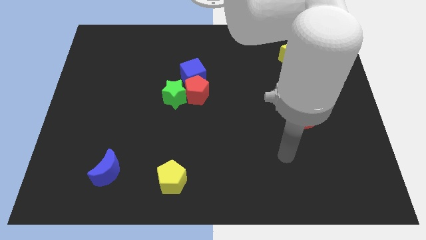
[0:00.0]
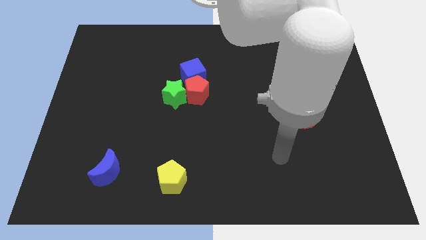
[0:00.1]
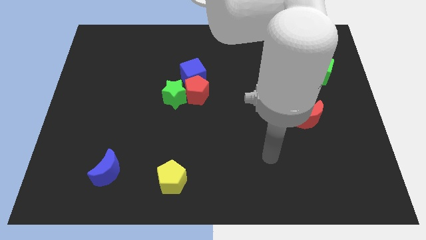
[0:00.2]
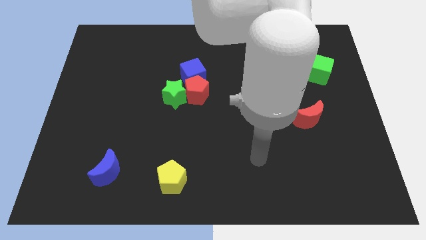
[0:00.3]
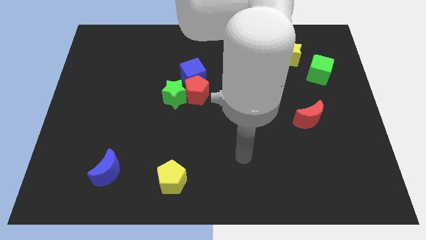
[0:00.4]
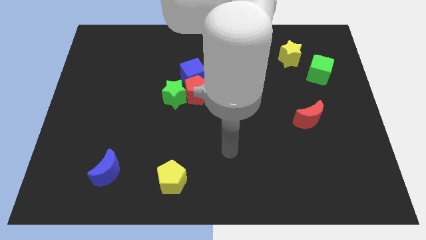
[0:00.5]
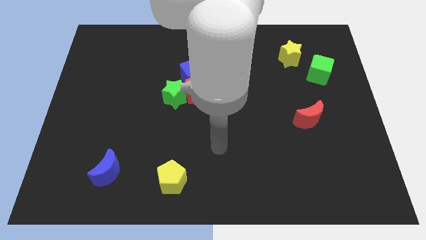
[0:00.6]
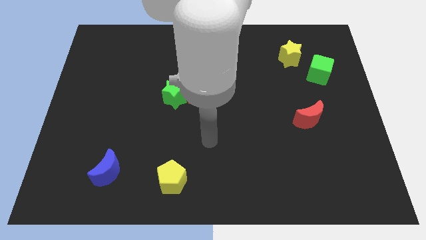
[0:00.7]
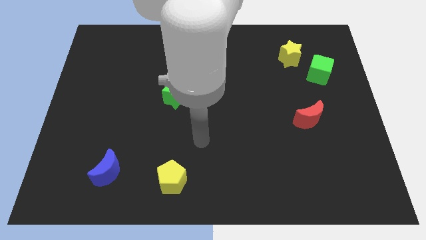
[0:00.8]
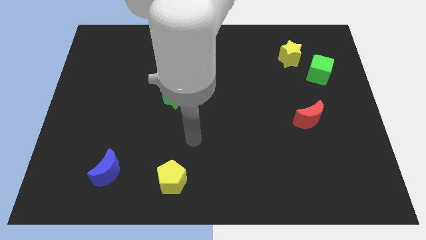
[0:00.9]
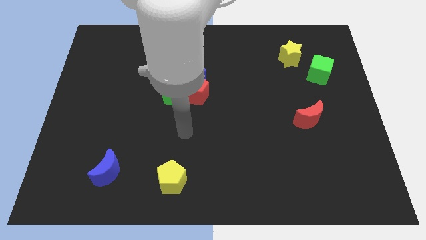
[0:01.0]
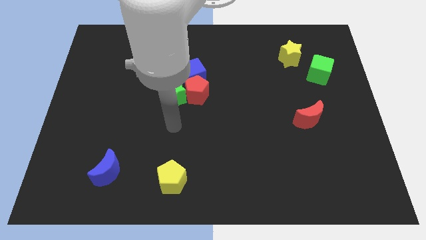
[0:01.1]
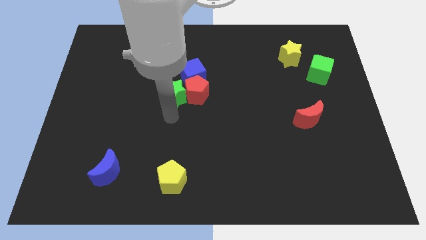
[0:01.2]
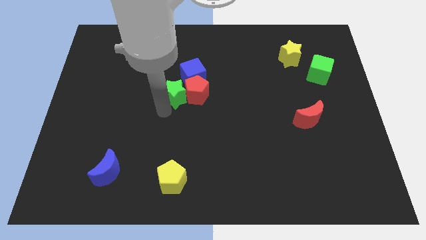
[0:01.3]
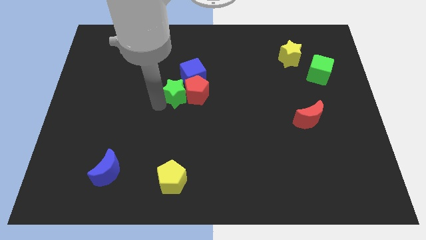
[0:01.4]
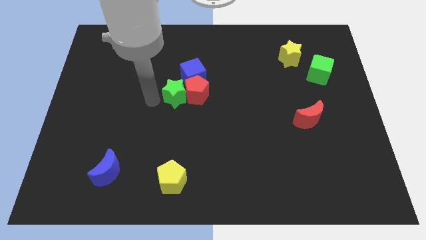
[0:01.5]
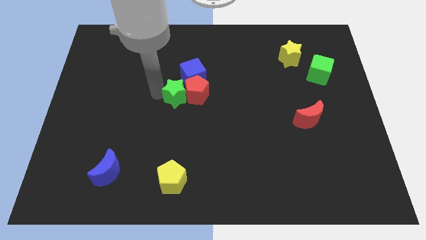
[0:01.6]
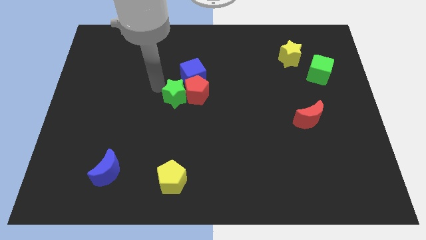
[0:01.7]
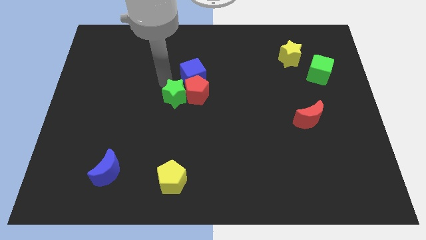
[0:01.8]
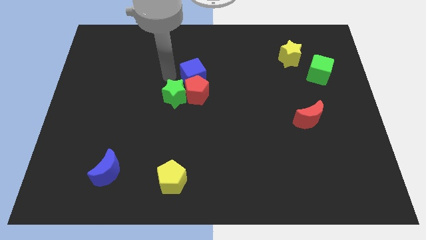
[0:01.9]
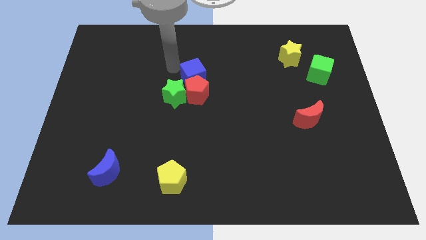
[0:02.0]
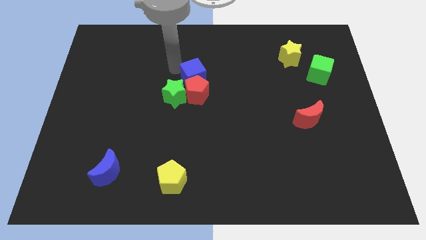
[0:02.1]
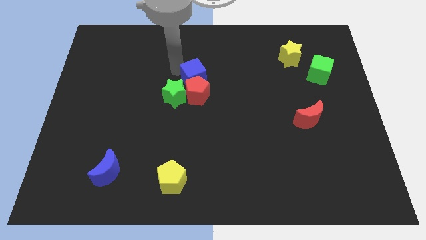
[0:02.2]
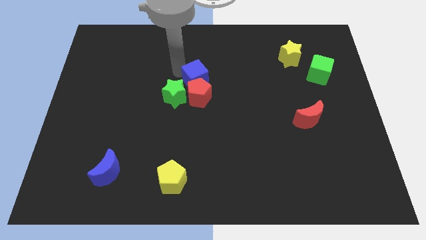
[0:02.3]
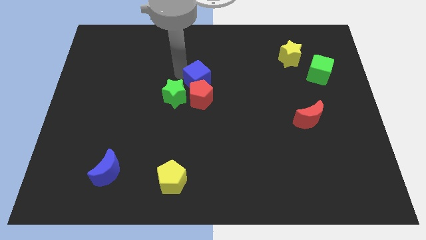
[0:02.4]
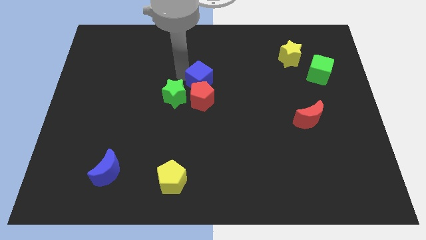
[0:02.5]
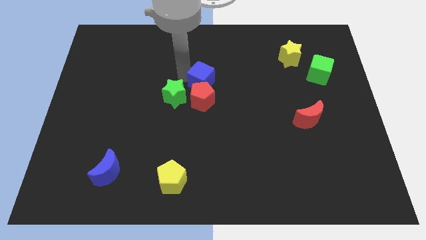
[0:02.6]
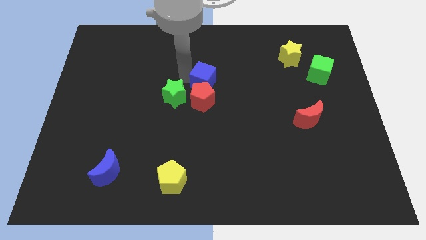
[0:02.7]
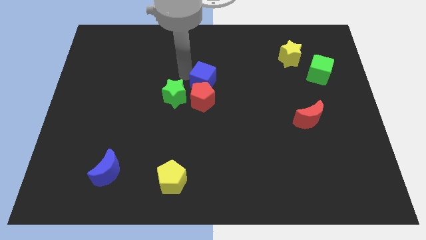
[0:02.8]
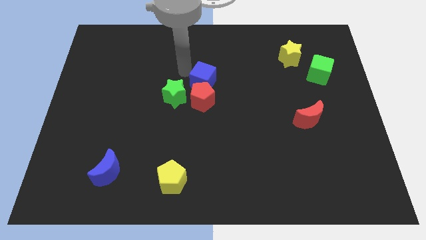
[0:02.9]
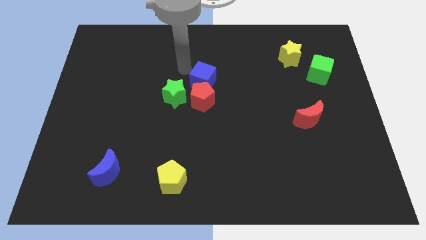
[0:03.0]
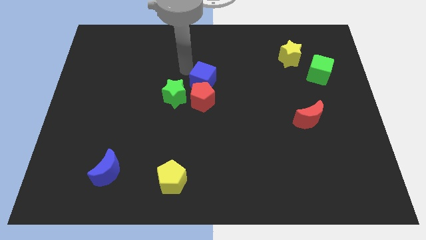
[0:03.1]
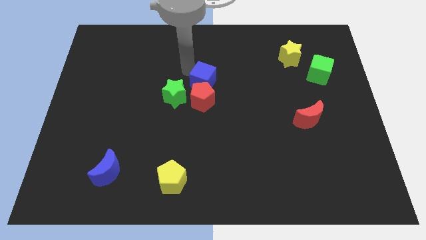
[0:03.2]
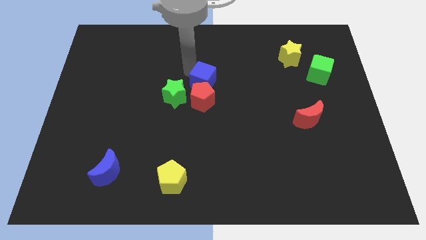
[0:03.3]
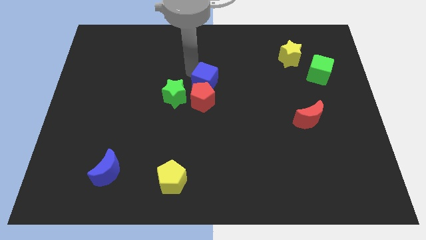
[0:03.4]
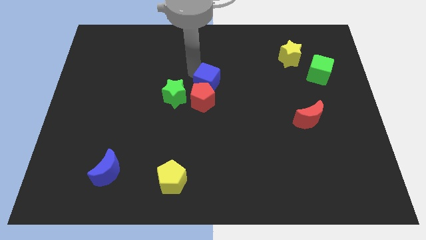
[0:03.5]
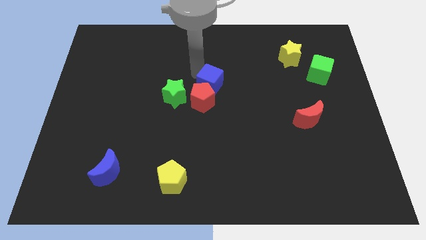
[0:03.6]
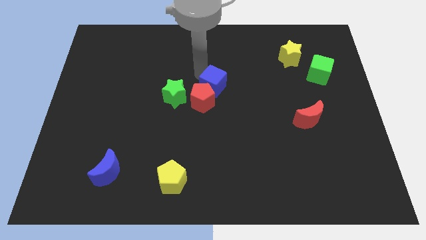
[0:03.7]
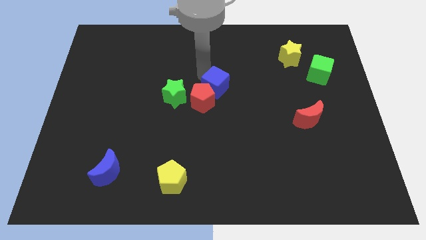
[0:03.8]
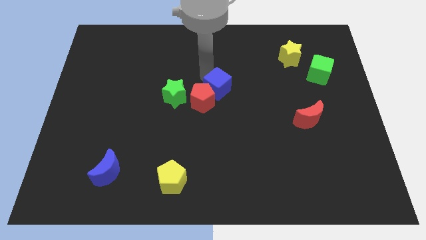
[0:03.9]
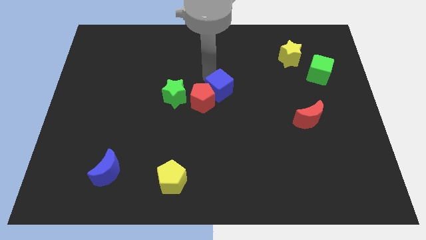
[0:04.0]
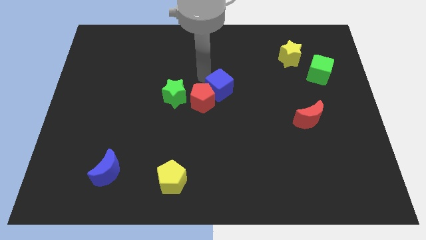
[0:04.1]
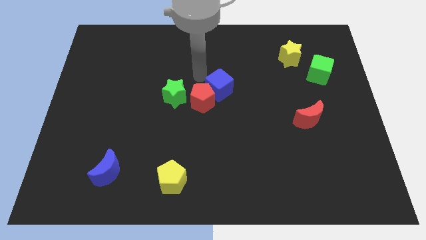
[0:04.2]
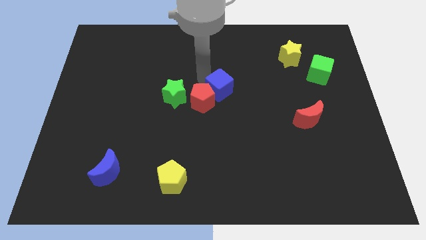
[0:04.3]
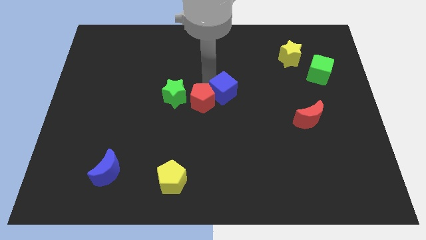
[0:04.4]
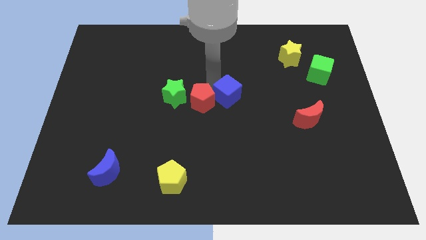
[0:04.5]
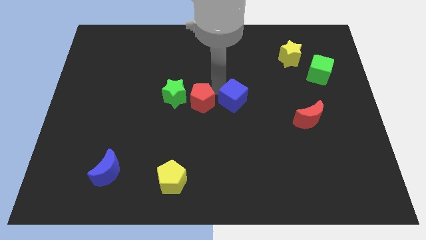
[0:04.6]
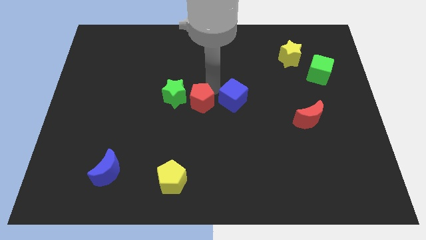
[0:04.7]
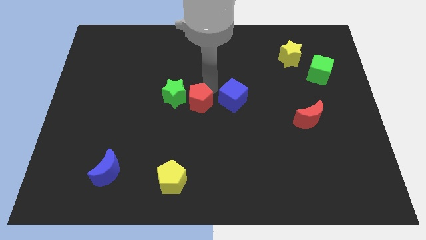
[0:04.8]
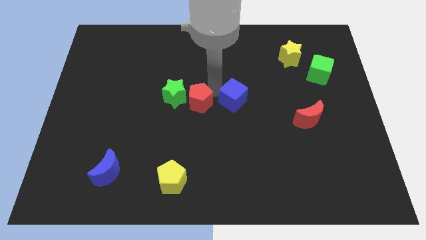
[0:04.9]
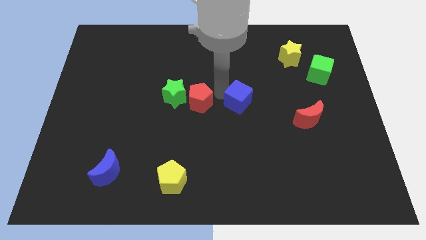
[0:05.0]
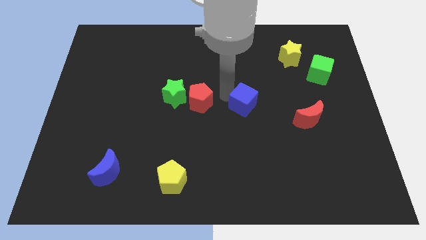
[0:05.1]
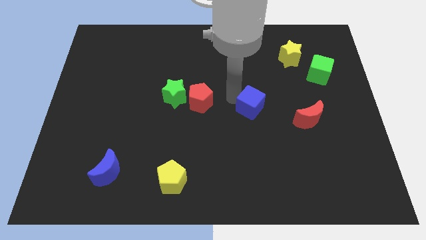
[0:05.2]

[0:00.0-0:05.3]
move the blue cube left of the red moon
